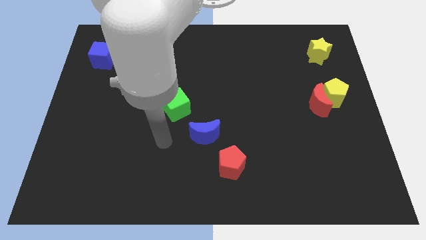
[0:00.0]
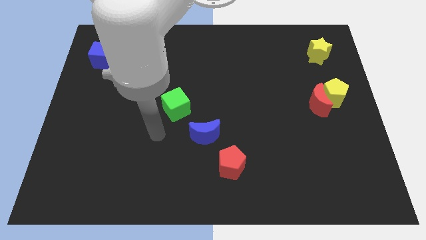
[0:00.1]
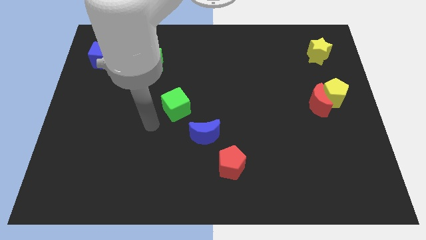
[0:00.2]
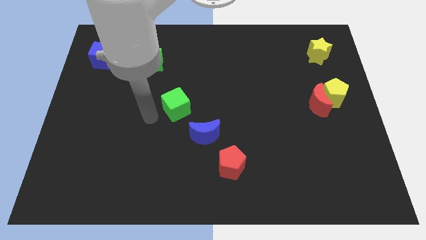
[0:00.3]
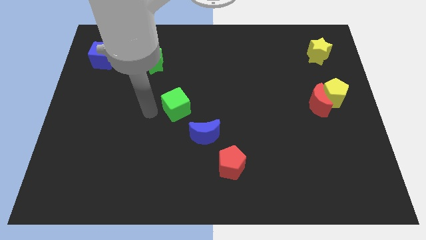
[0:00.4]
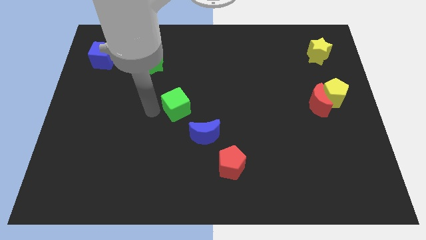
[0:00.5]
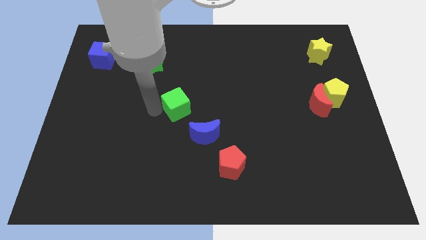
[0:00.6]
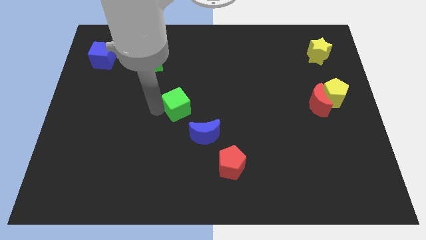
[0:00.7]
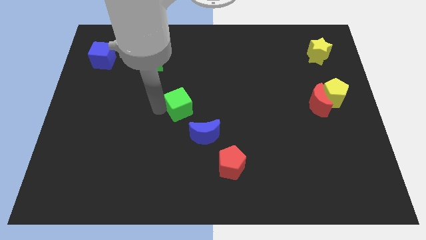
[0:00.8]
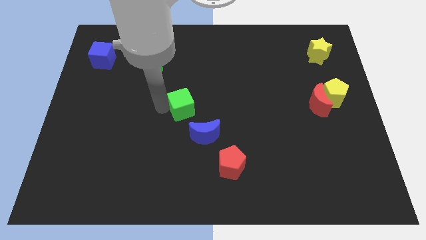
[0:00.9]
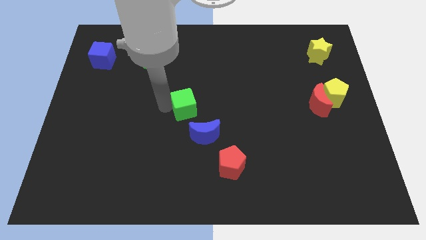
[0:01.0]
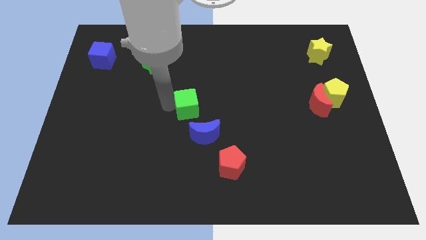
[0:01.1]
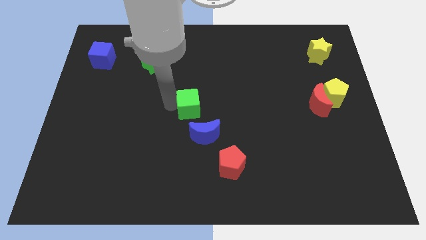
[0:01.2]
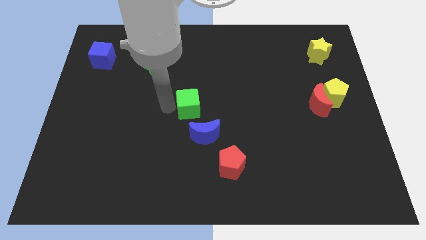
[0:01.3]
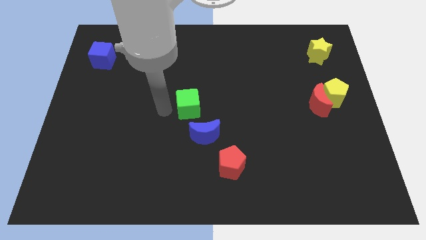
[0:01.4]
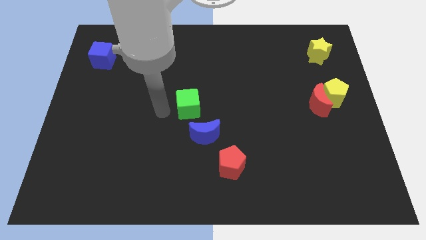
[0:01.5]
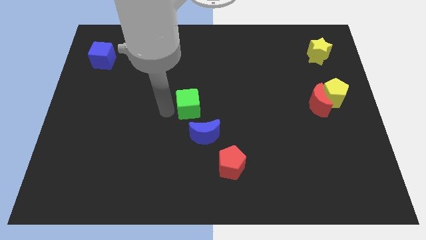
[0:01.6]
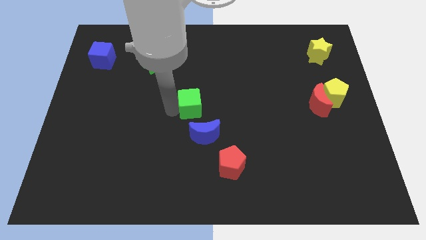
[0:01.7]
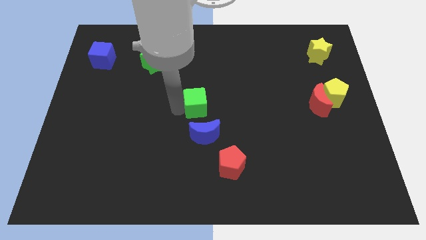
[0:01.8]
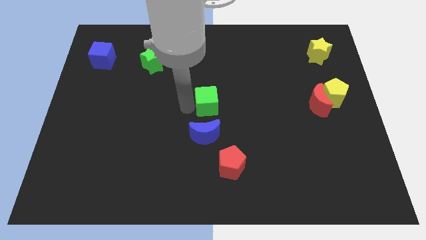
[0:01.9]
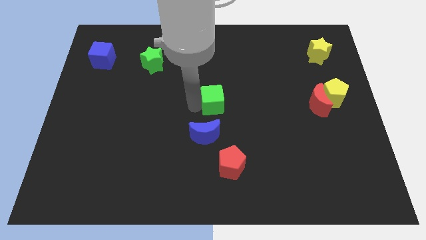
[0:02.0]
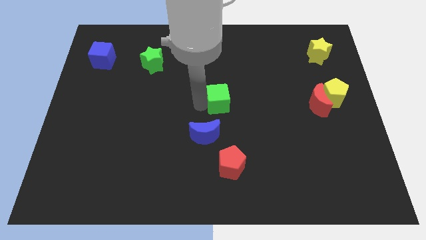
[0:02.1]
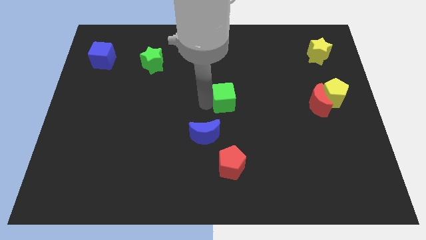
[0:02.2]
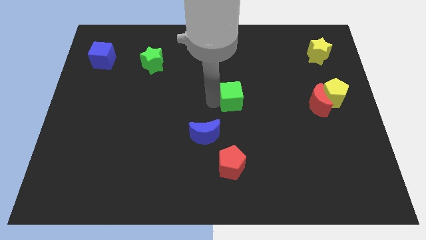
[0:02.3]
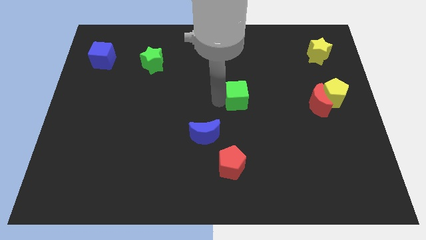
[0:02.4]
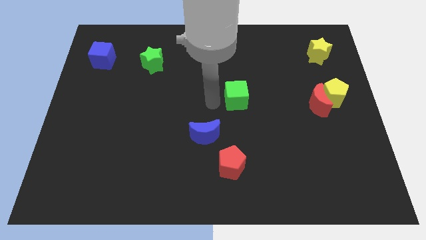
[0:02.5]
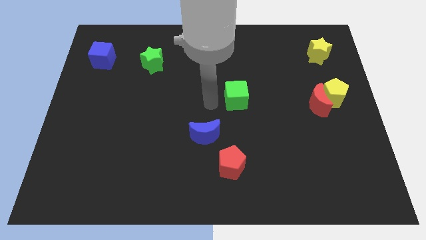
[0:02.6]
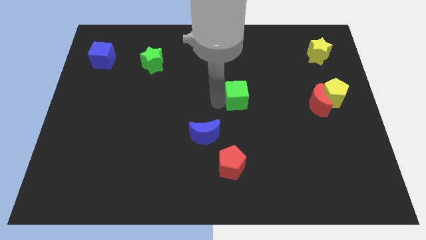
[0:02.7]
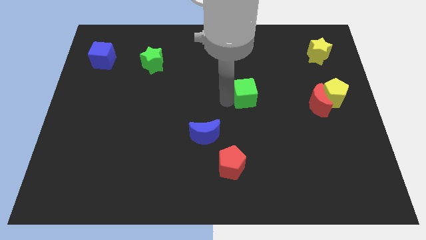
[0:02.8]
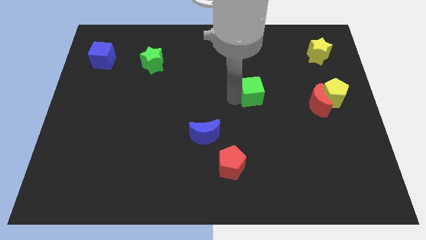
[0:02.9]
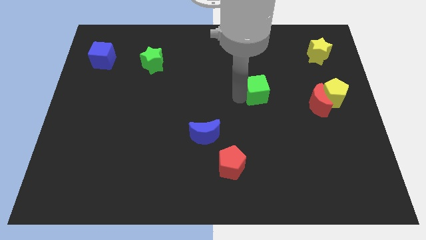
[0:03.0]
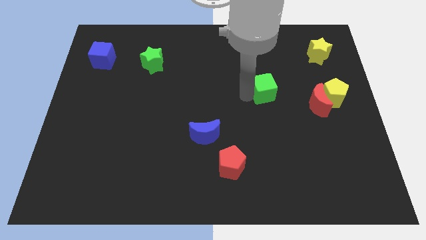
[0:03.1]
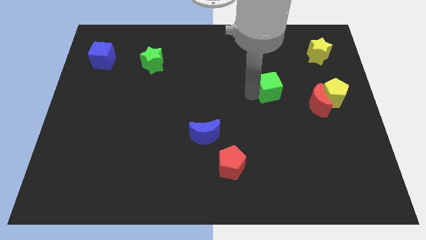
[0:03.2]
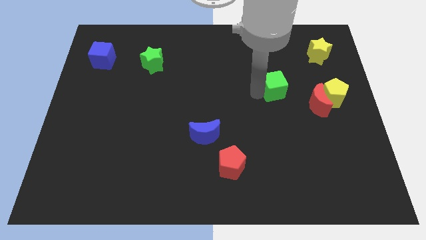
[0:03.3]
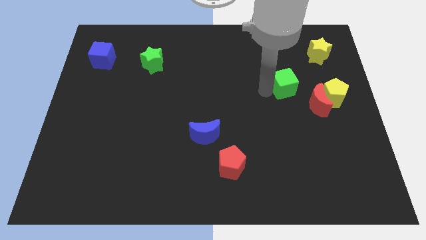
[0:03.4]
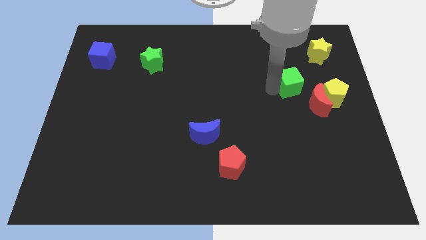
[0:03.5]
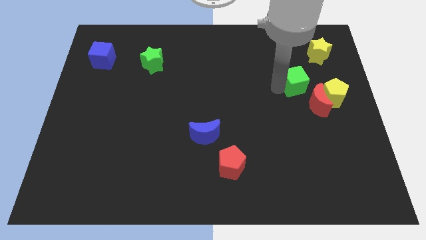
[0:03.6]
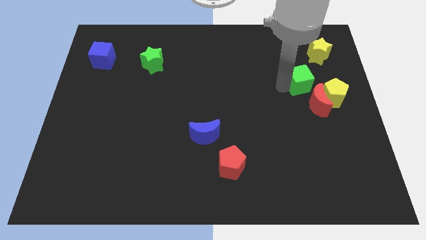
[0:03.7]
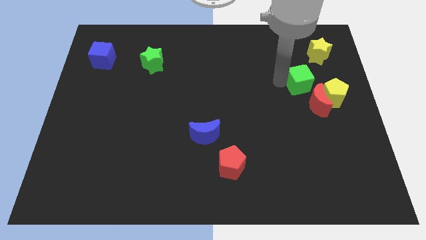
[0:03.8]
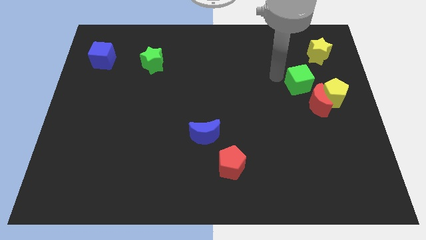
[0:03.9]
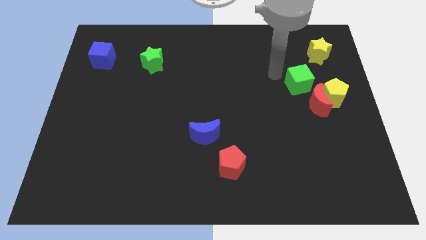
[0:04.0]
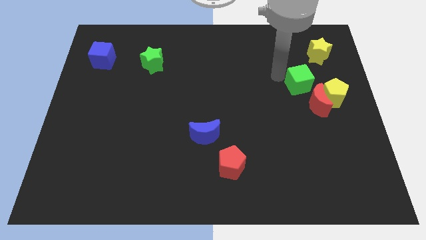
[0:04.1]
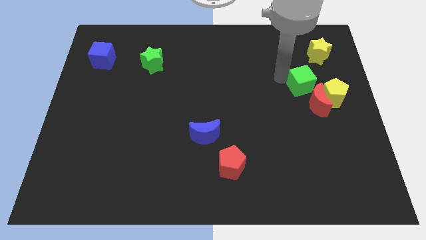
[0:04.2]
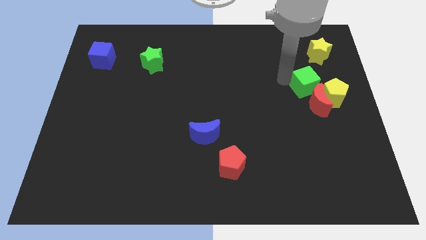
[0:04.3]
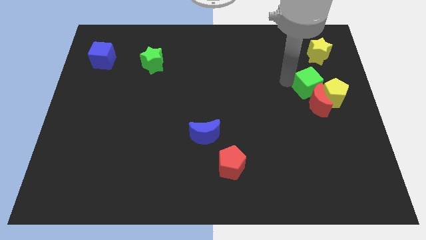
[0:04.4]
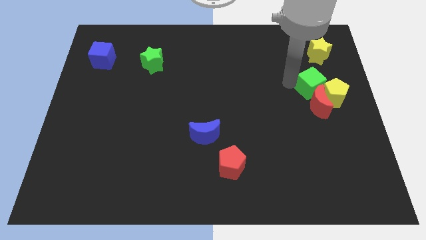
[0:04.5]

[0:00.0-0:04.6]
slide the green cube close to the yellow pentagon

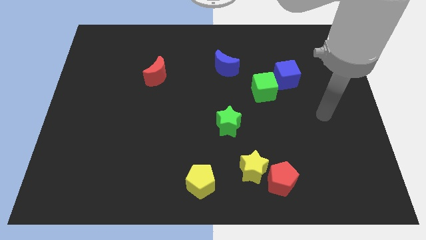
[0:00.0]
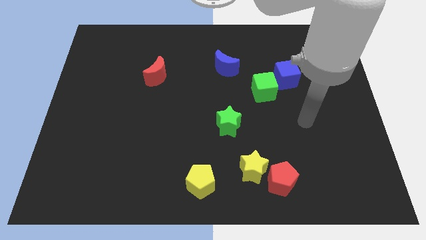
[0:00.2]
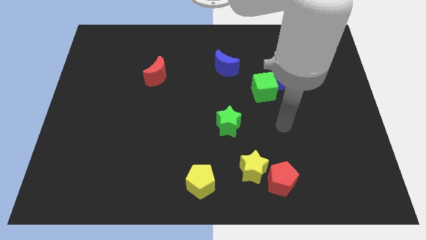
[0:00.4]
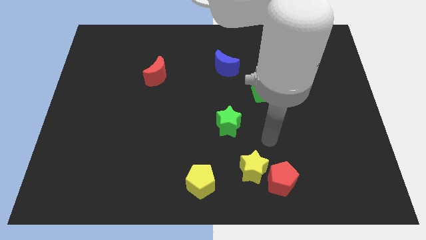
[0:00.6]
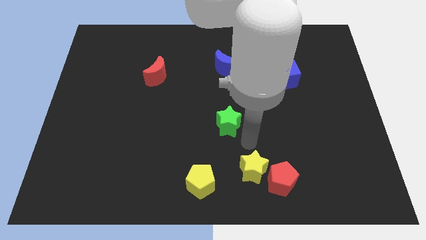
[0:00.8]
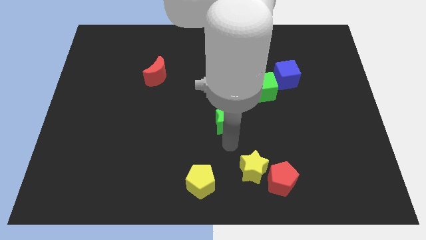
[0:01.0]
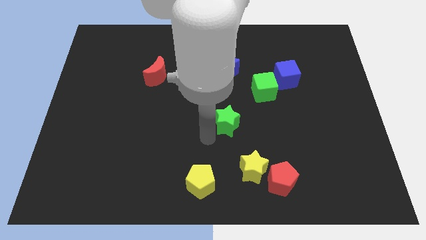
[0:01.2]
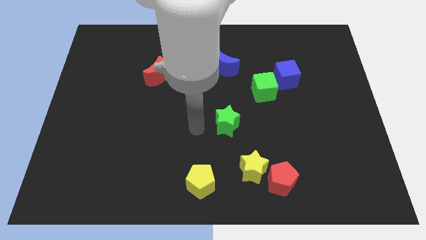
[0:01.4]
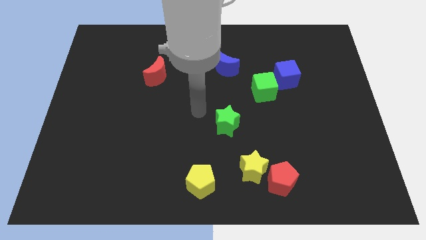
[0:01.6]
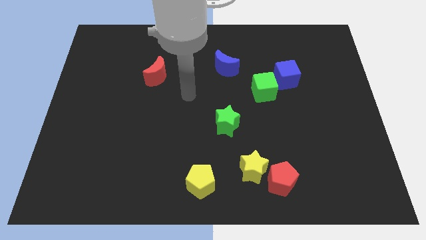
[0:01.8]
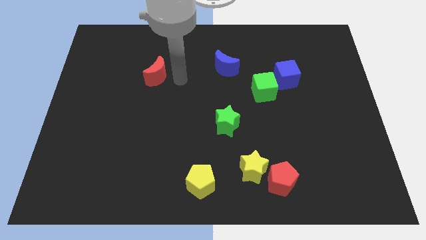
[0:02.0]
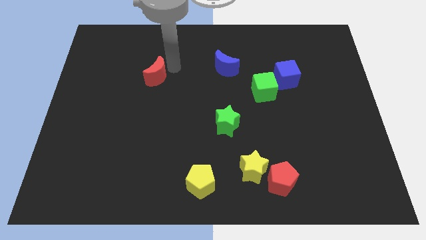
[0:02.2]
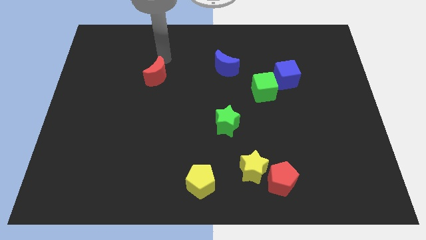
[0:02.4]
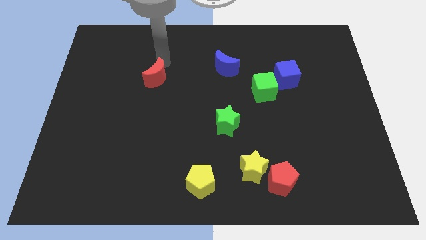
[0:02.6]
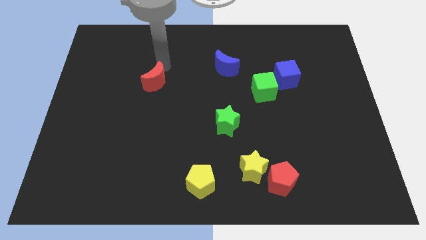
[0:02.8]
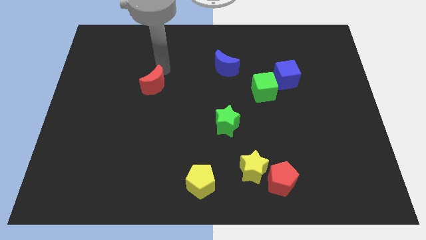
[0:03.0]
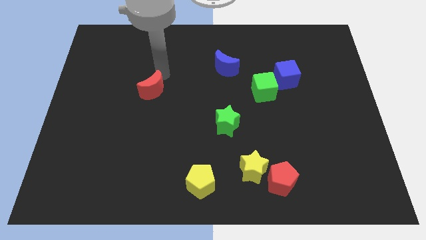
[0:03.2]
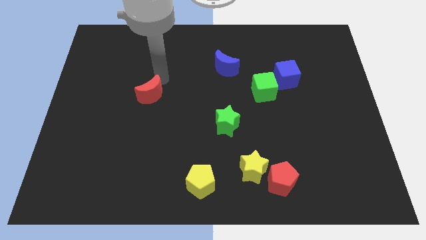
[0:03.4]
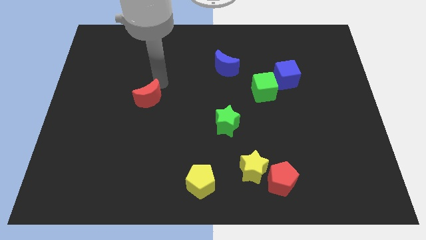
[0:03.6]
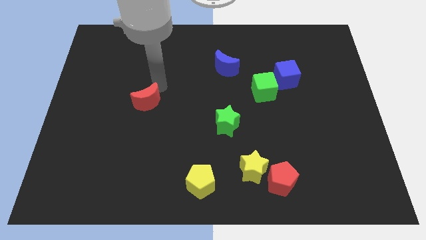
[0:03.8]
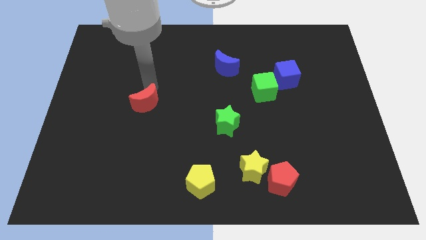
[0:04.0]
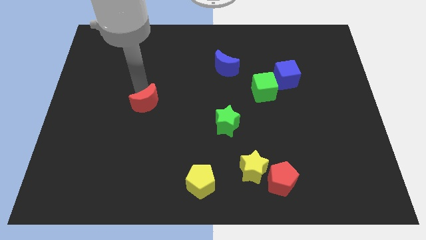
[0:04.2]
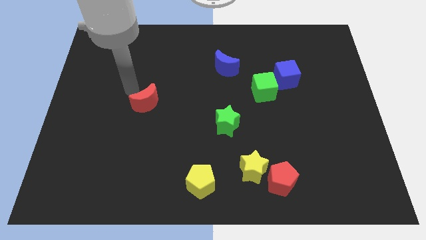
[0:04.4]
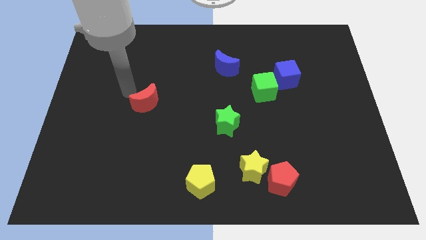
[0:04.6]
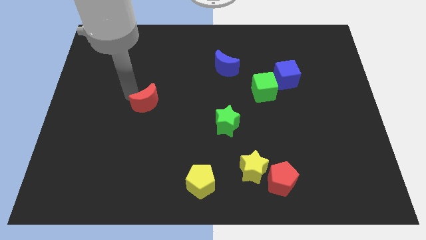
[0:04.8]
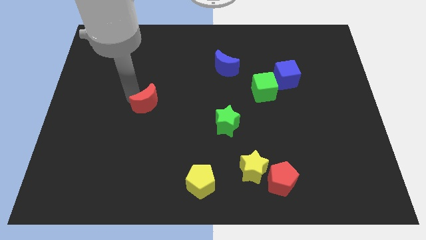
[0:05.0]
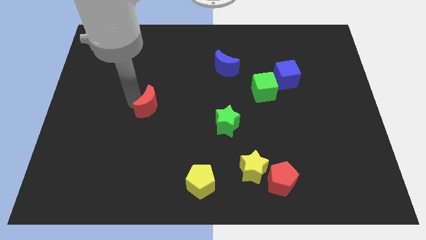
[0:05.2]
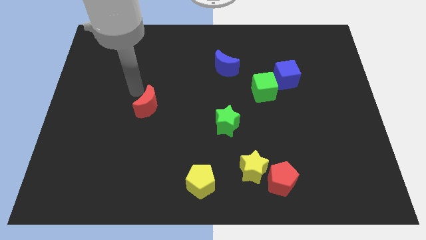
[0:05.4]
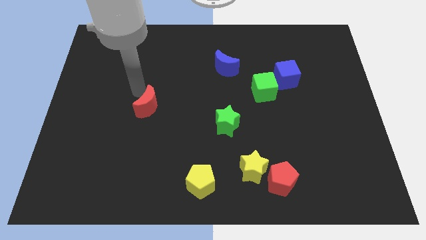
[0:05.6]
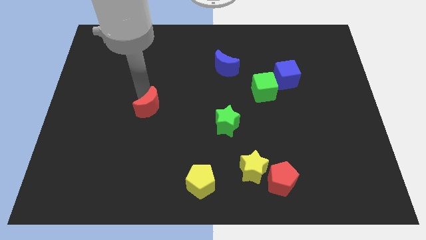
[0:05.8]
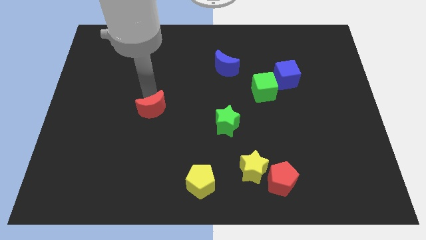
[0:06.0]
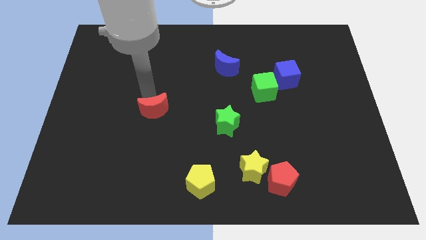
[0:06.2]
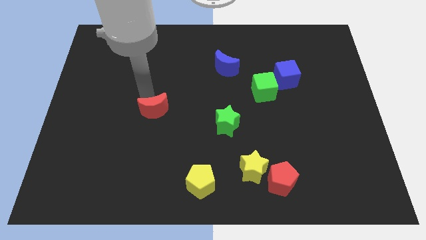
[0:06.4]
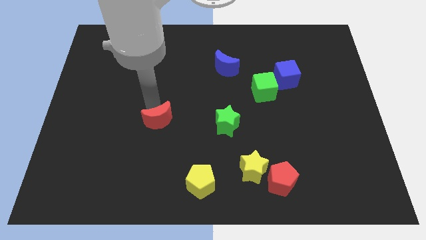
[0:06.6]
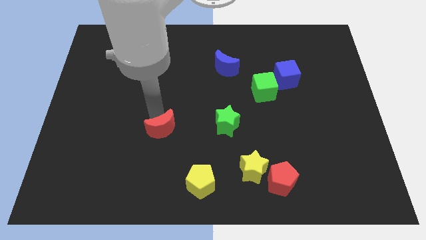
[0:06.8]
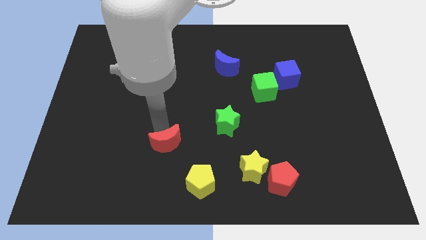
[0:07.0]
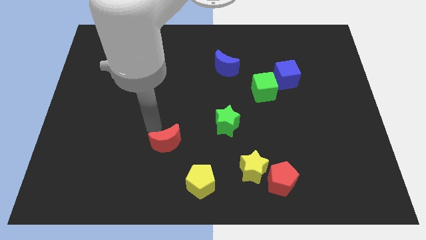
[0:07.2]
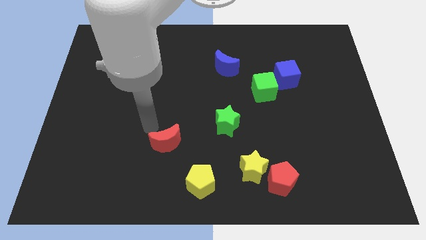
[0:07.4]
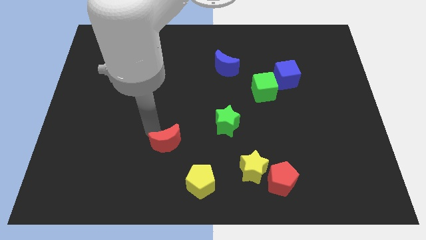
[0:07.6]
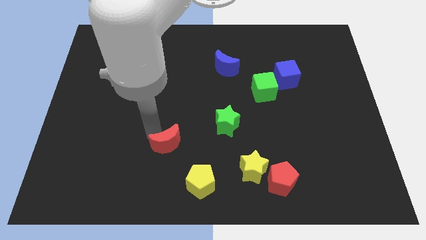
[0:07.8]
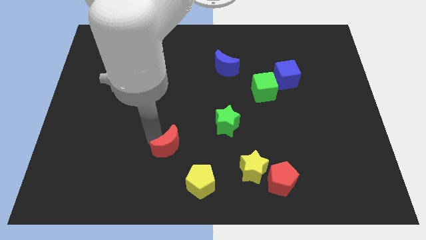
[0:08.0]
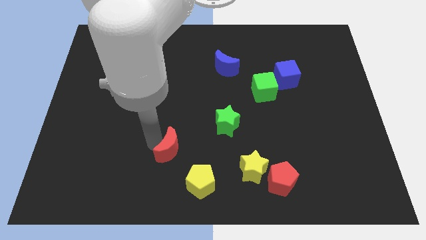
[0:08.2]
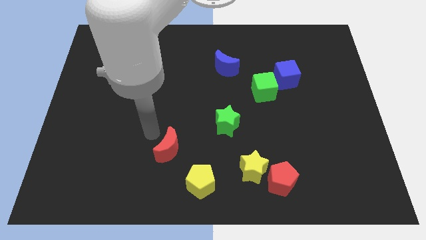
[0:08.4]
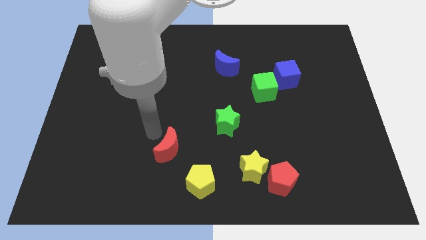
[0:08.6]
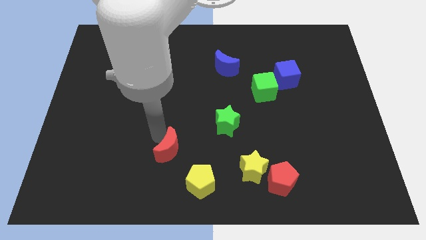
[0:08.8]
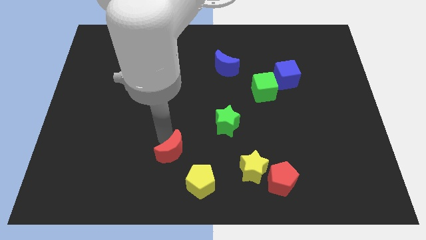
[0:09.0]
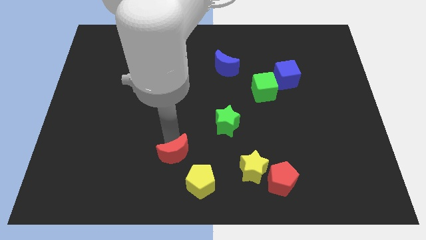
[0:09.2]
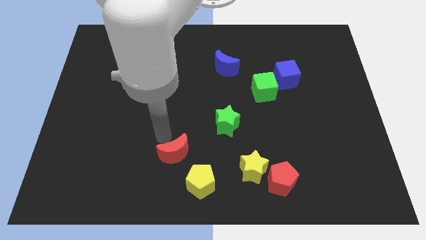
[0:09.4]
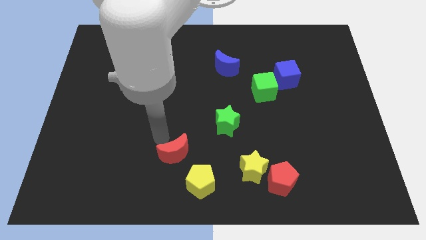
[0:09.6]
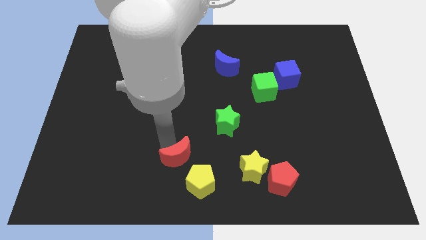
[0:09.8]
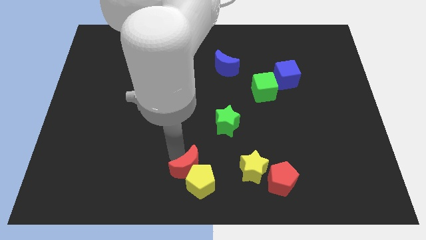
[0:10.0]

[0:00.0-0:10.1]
move the red moon towards the yellow pentagon
